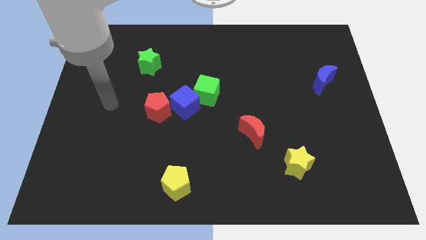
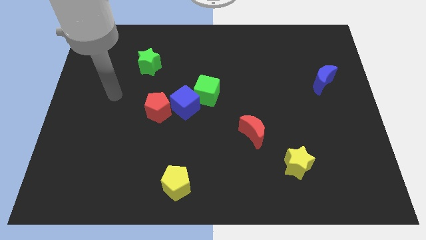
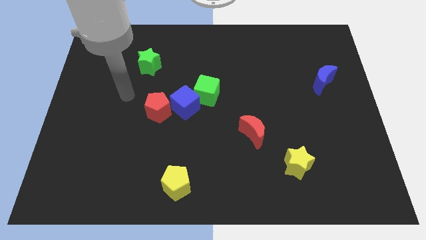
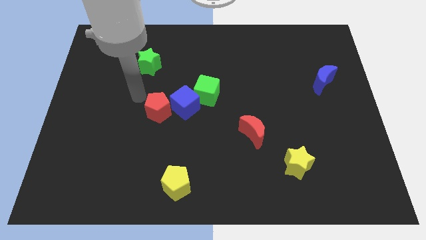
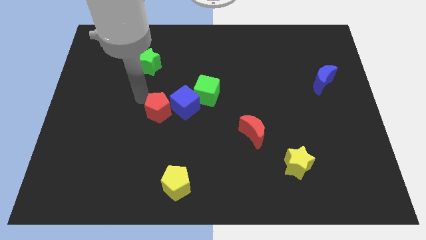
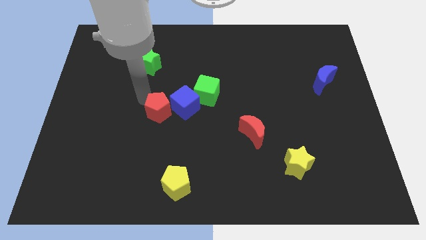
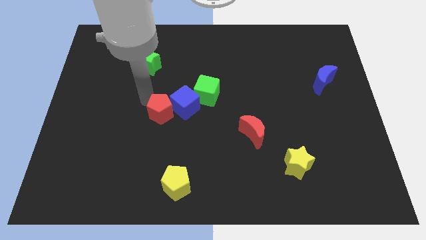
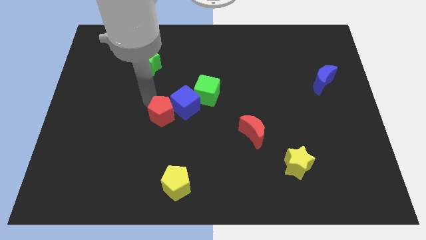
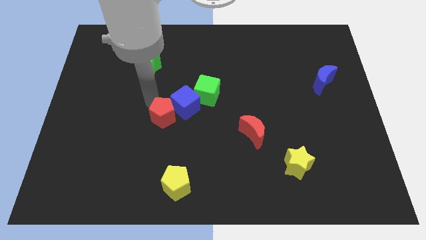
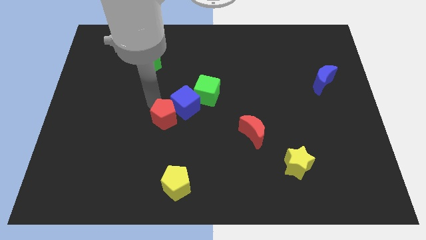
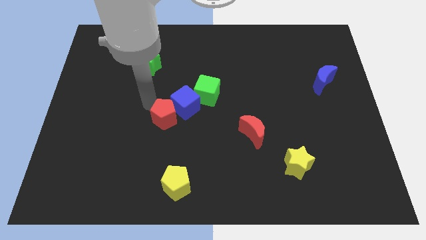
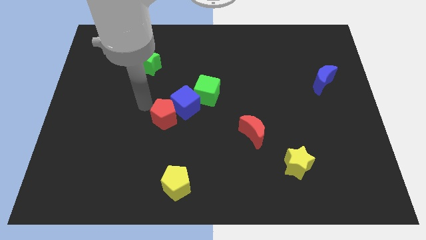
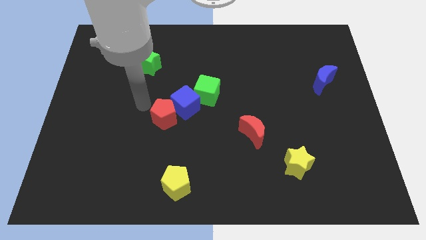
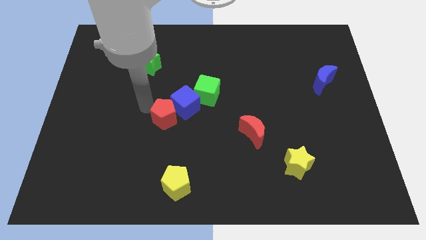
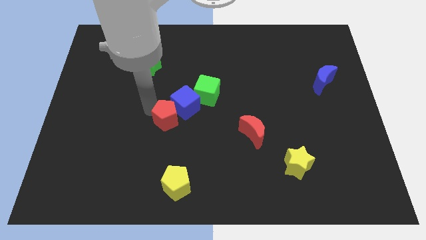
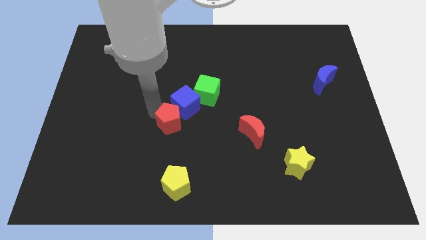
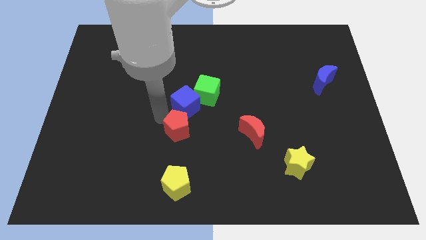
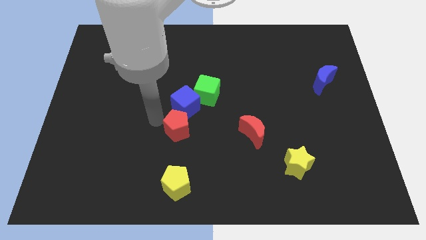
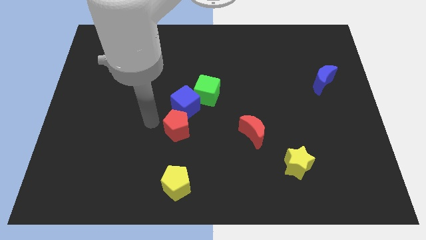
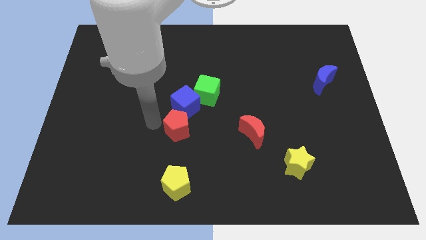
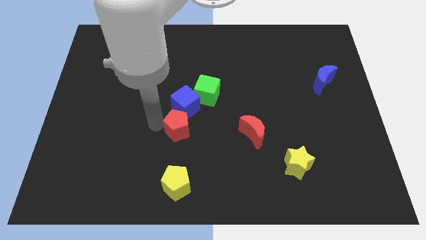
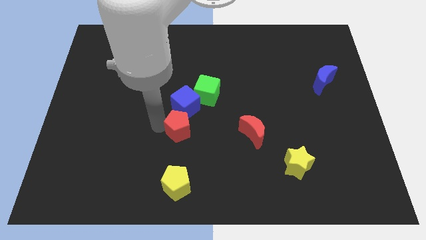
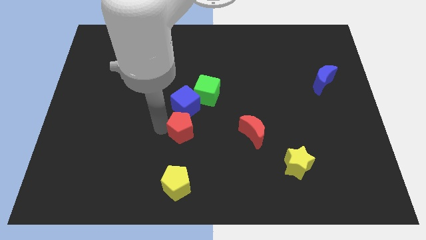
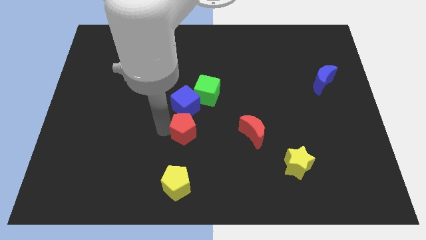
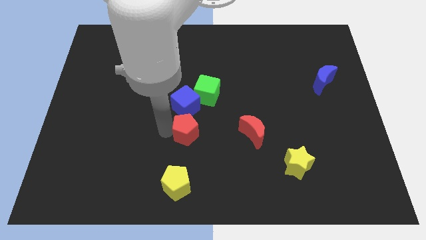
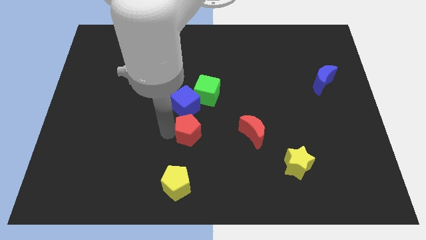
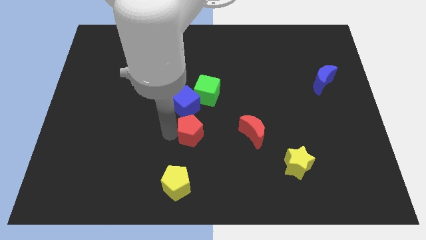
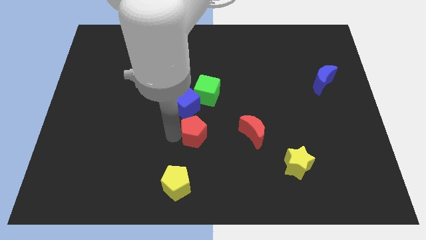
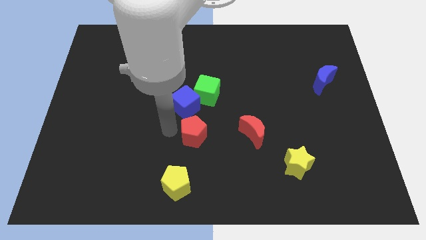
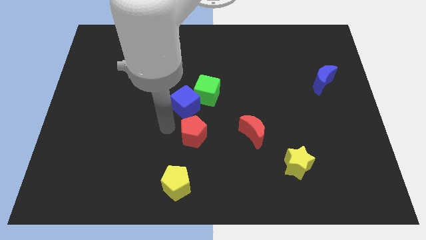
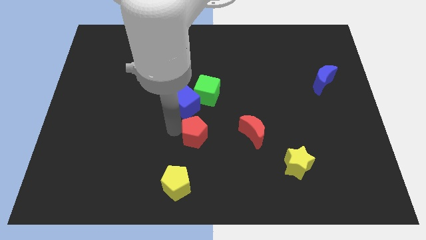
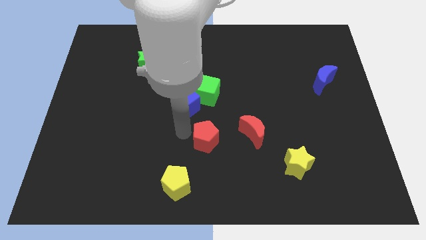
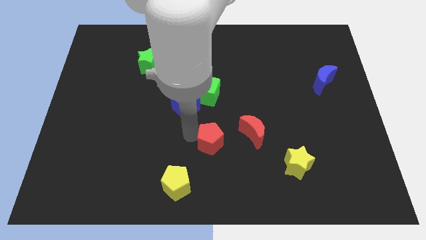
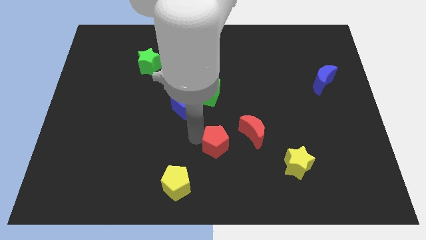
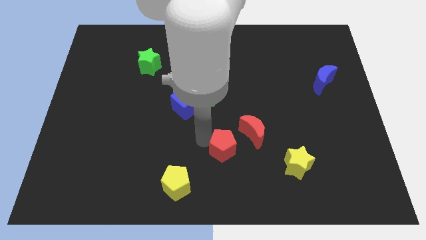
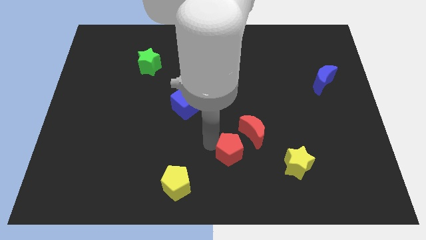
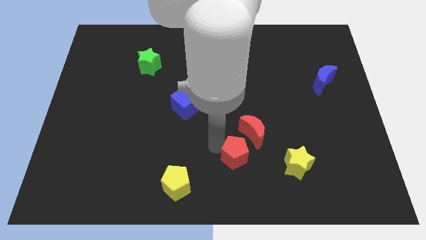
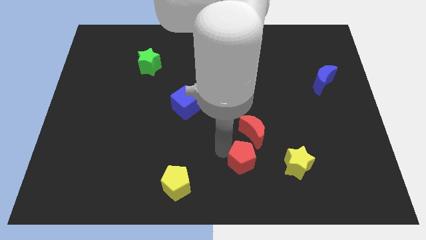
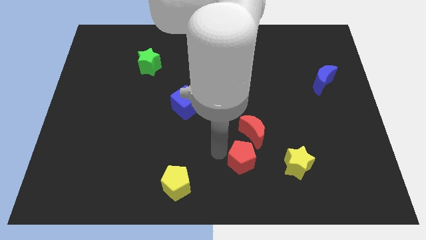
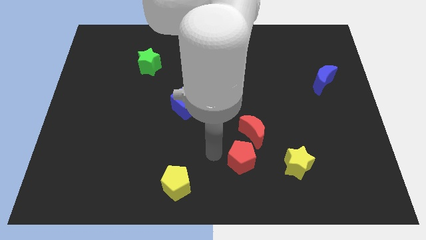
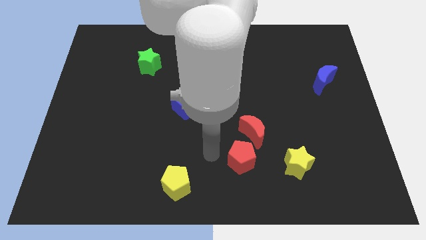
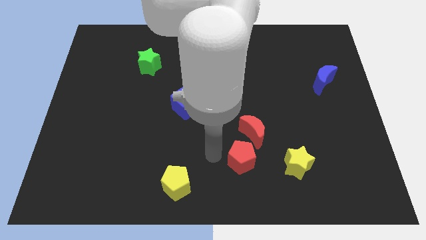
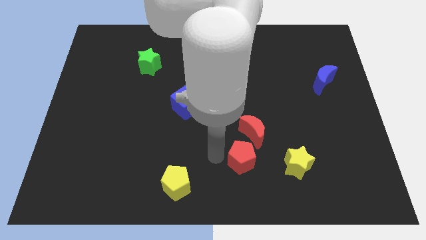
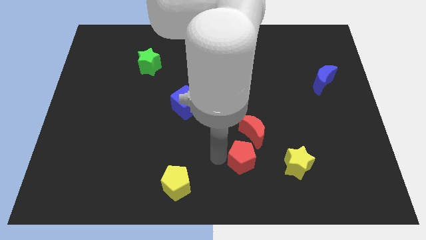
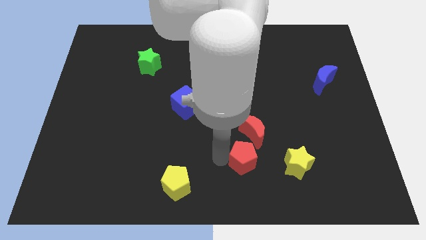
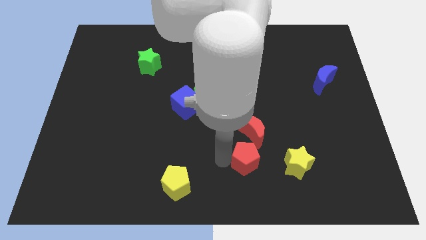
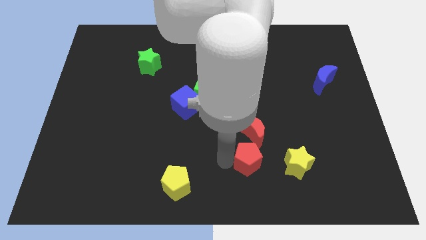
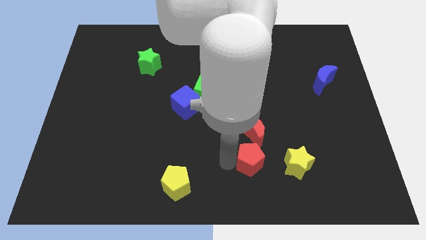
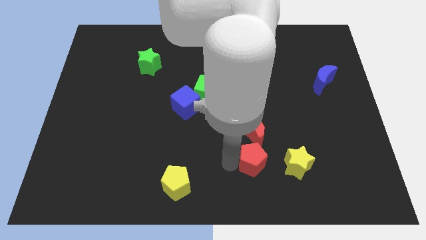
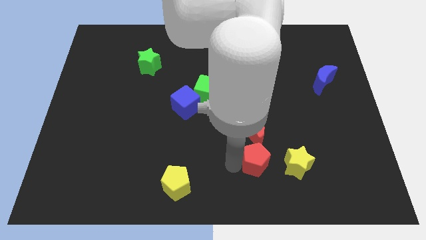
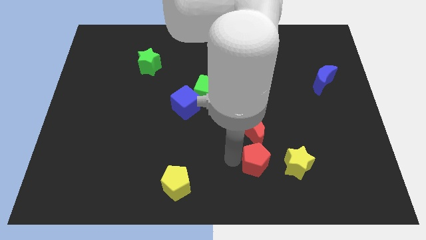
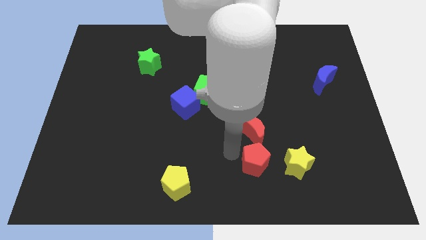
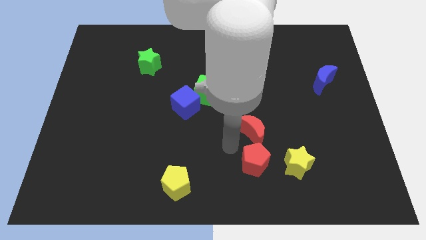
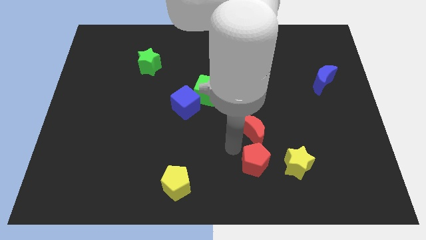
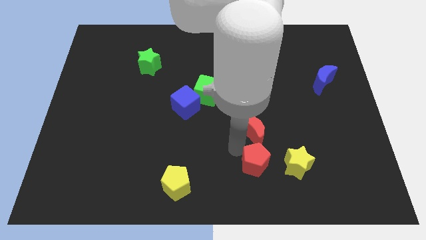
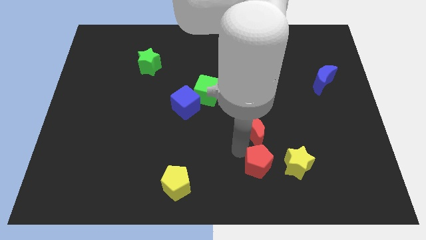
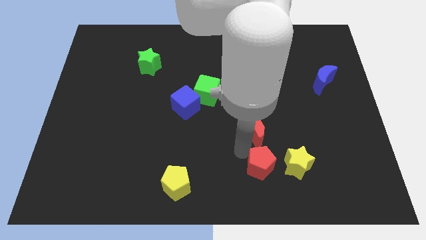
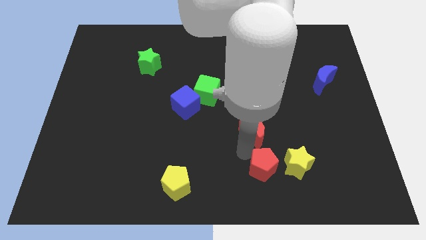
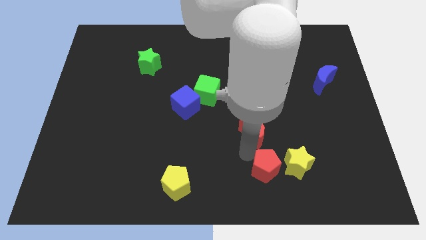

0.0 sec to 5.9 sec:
put the red pentagon to the bottom right side of the red moon

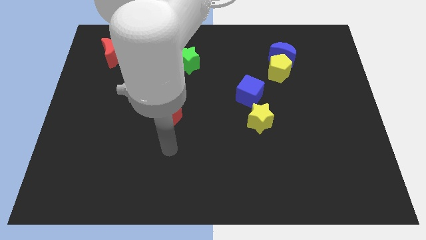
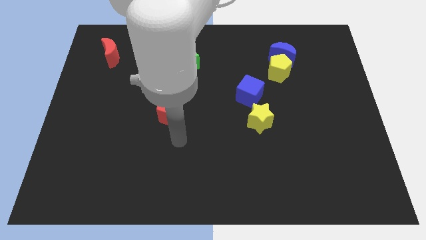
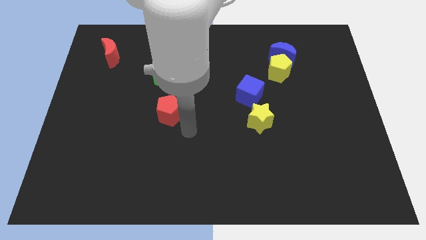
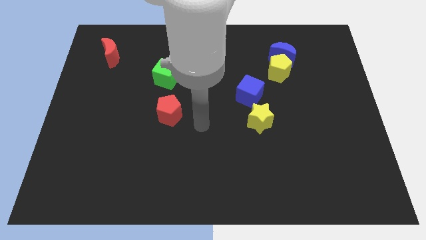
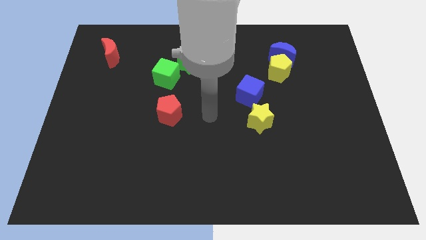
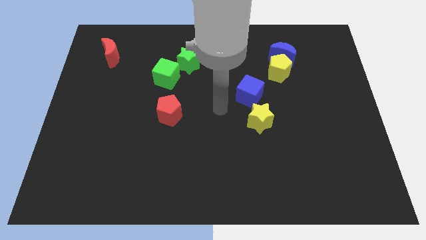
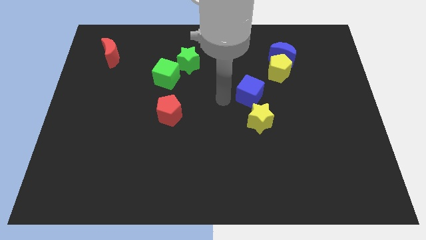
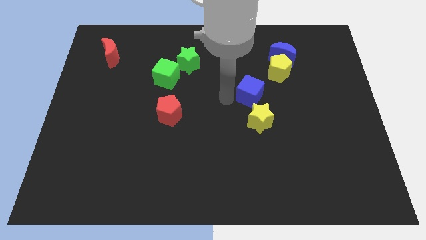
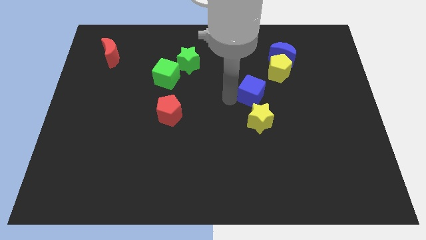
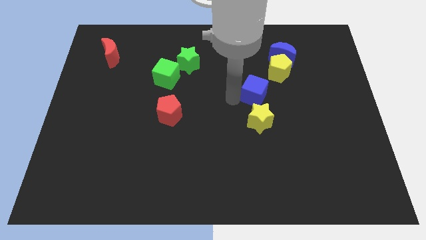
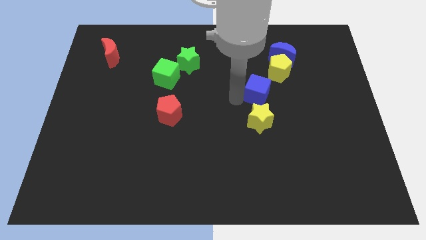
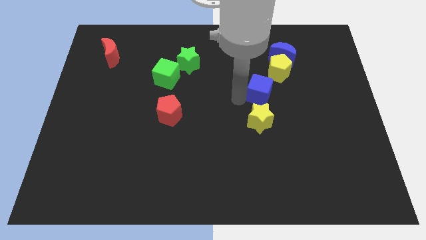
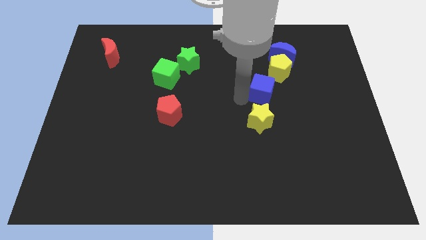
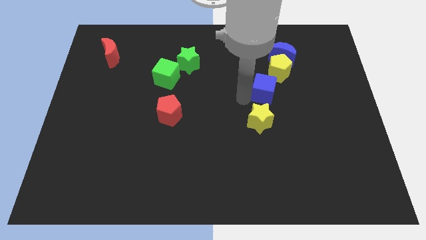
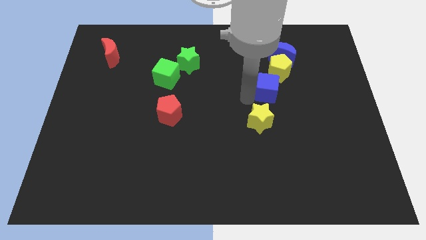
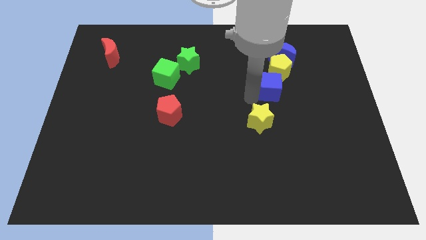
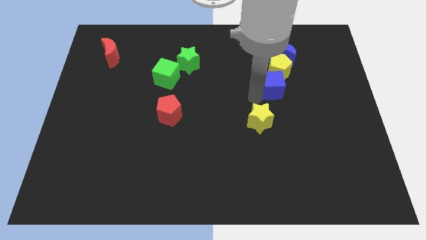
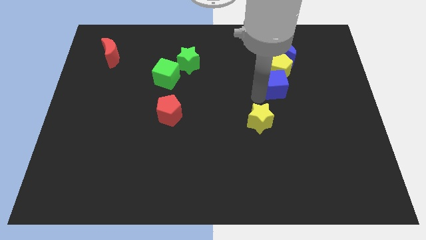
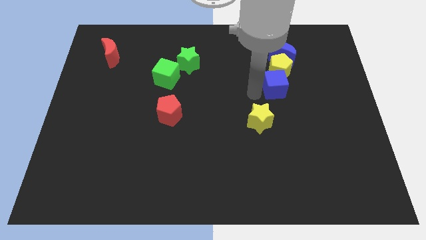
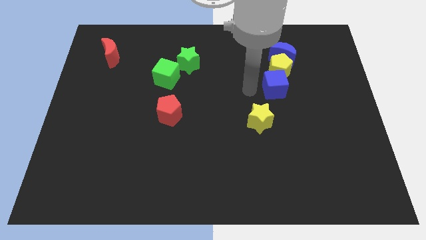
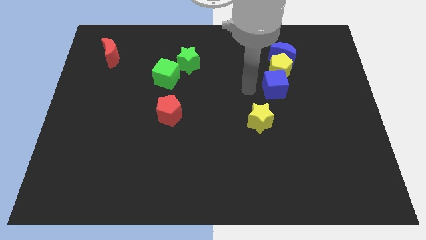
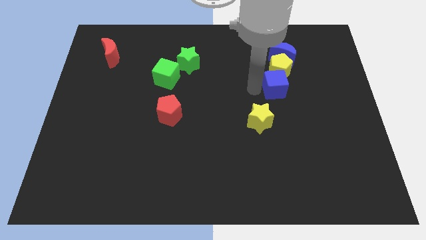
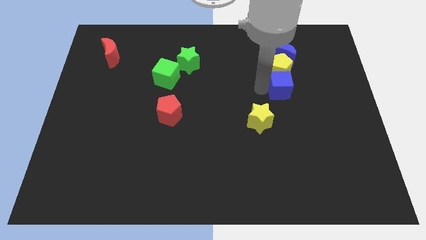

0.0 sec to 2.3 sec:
put the blue cube diagonally down and to the right of the yellow pentagon
